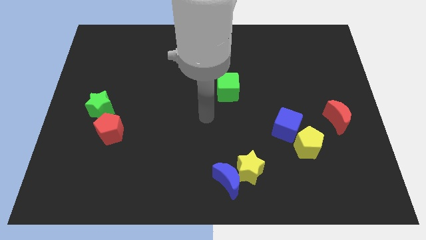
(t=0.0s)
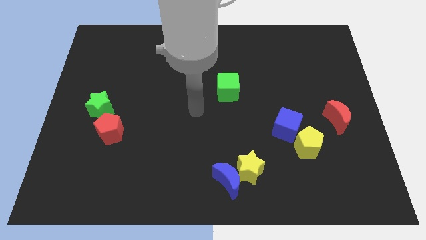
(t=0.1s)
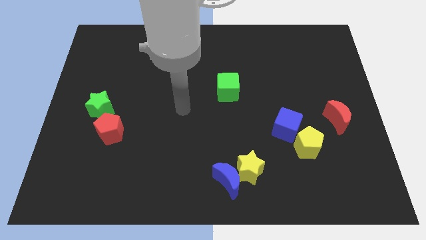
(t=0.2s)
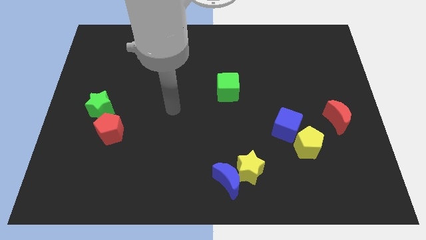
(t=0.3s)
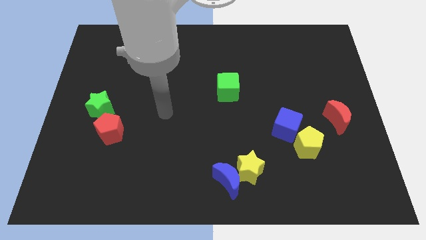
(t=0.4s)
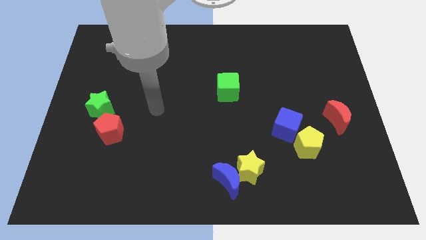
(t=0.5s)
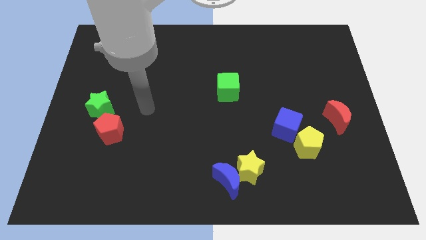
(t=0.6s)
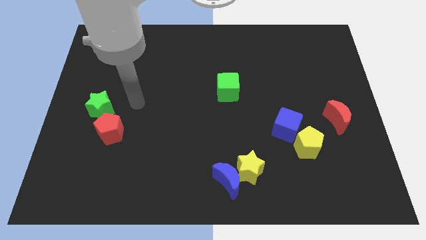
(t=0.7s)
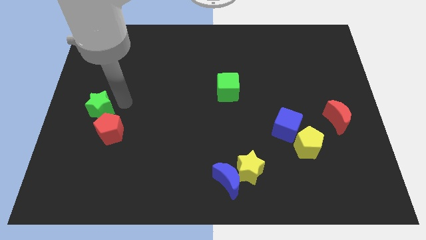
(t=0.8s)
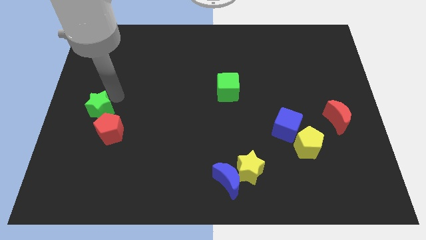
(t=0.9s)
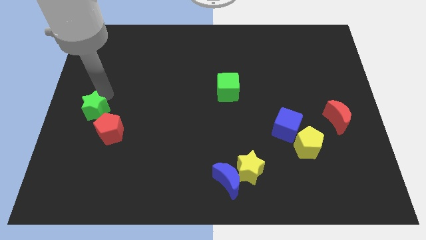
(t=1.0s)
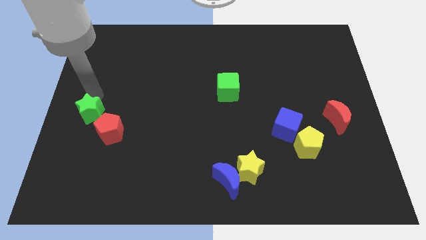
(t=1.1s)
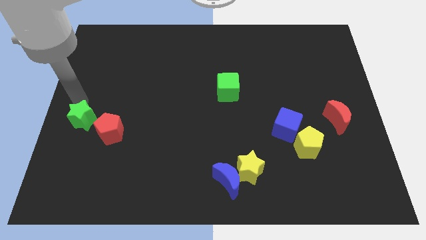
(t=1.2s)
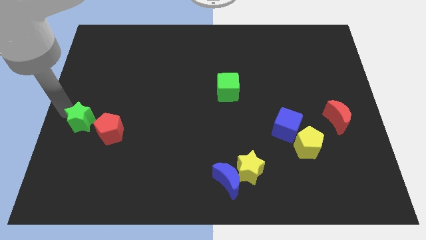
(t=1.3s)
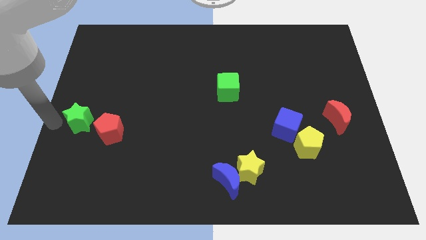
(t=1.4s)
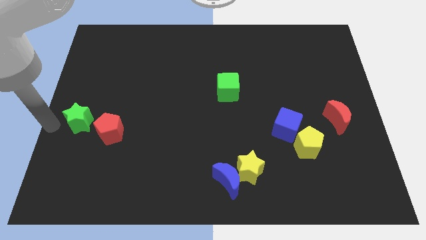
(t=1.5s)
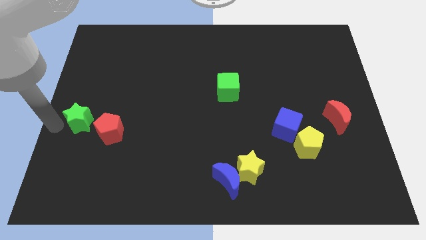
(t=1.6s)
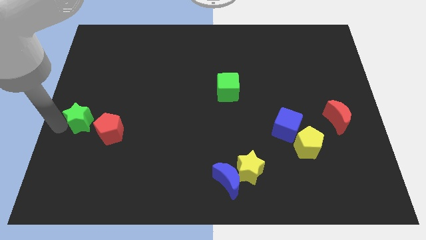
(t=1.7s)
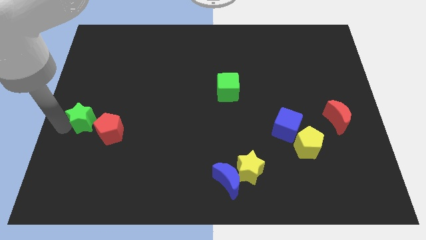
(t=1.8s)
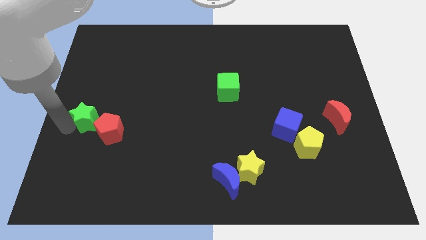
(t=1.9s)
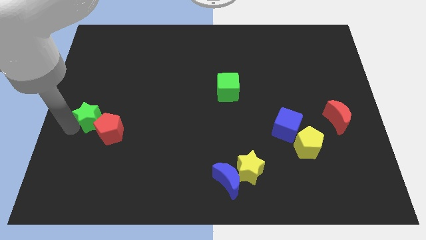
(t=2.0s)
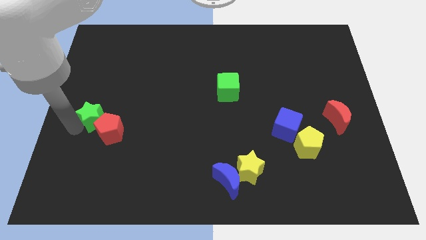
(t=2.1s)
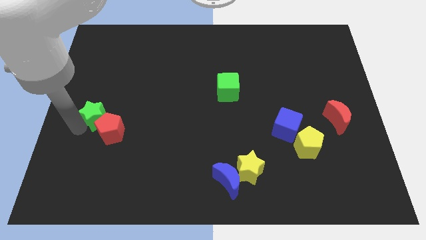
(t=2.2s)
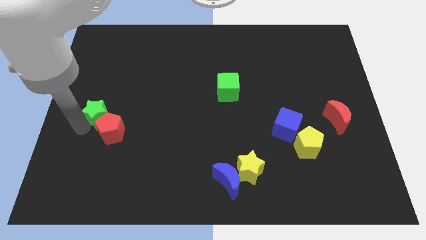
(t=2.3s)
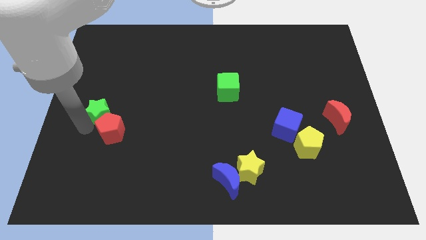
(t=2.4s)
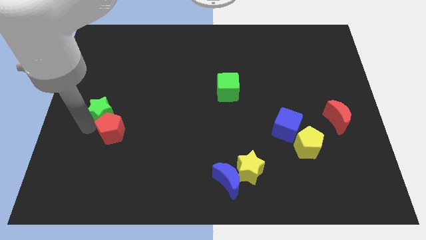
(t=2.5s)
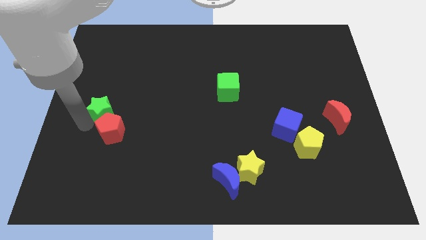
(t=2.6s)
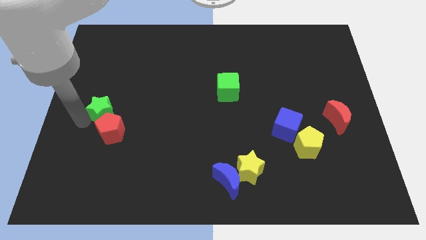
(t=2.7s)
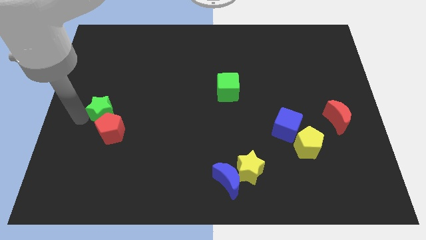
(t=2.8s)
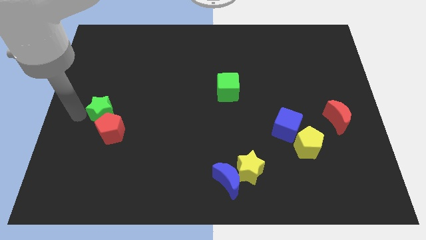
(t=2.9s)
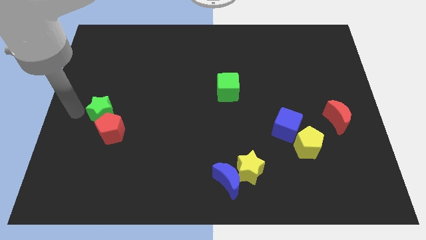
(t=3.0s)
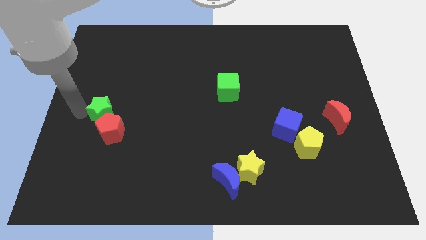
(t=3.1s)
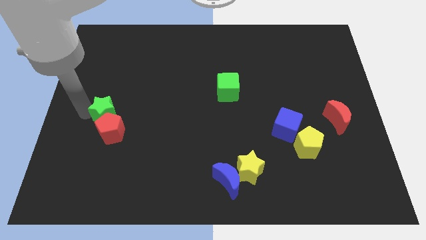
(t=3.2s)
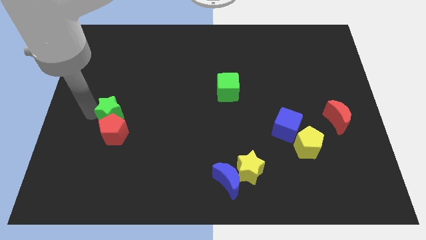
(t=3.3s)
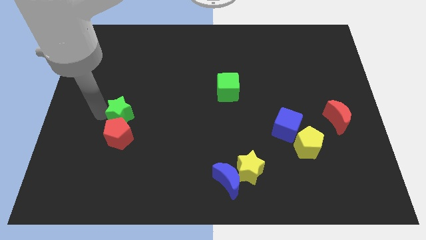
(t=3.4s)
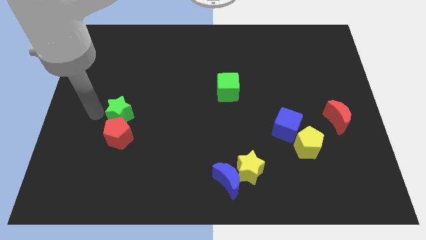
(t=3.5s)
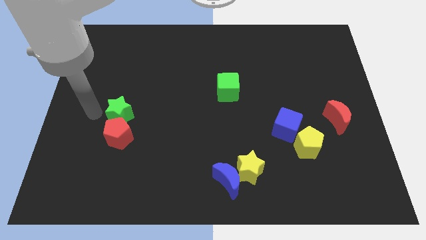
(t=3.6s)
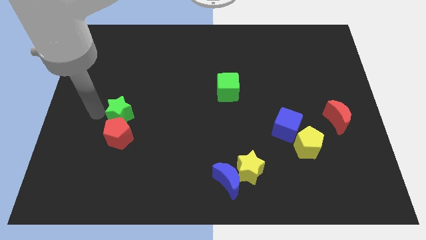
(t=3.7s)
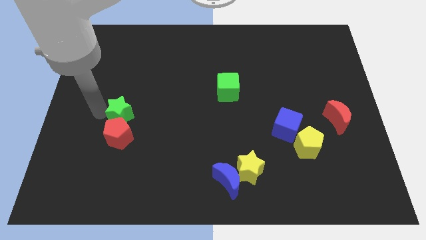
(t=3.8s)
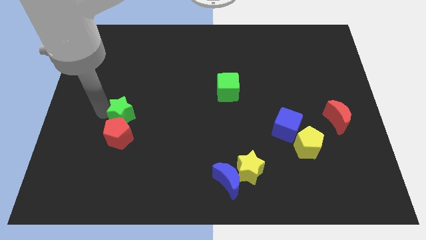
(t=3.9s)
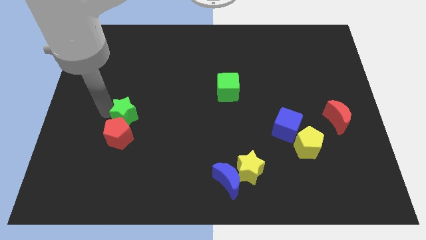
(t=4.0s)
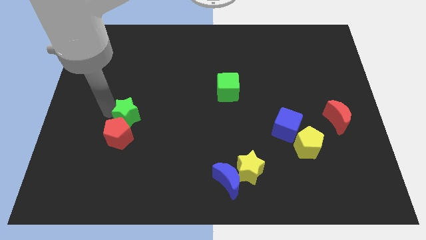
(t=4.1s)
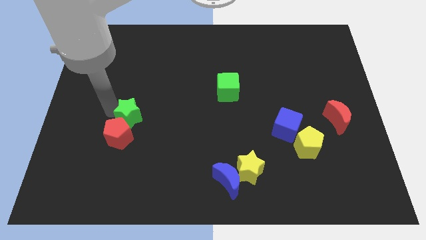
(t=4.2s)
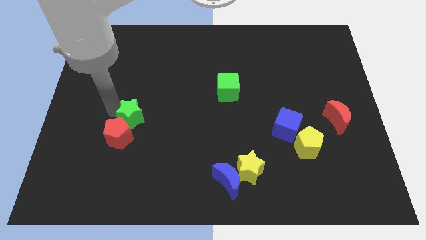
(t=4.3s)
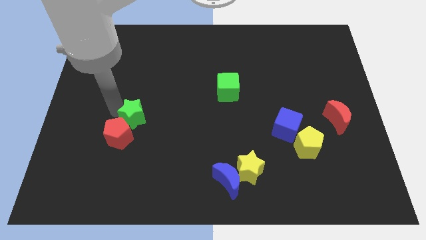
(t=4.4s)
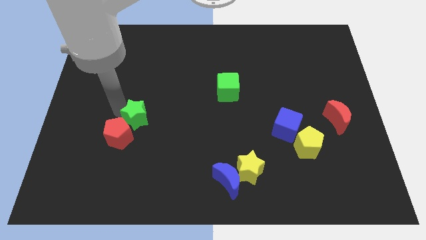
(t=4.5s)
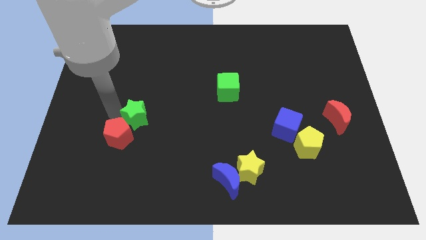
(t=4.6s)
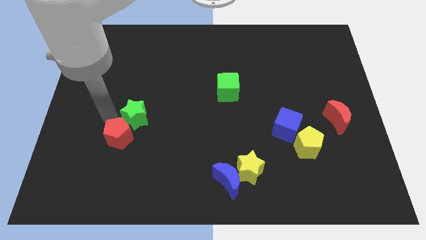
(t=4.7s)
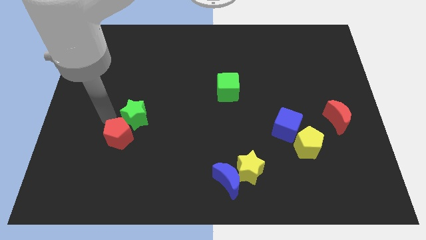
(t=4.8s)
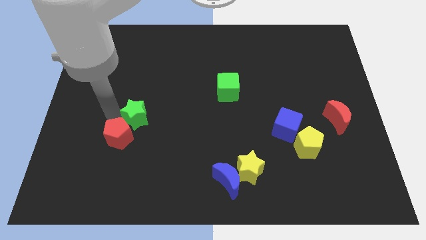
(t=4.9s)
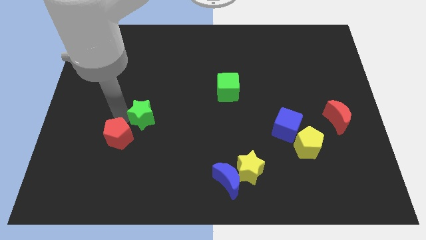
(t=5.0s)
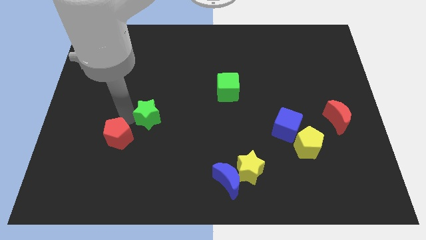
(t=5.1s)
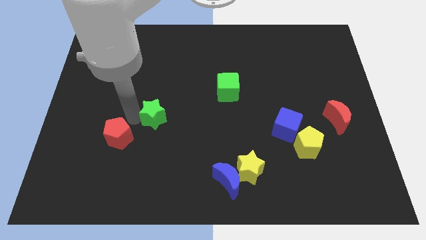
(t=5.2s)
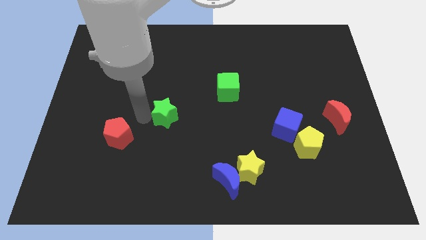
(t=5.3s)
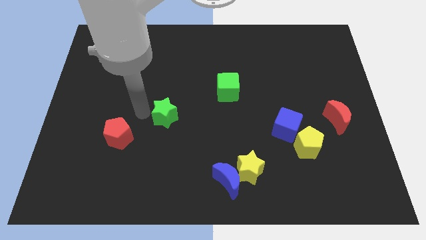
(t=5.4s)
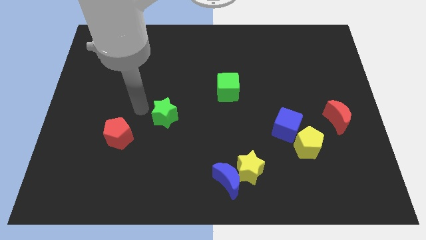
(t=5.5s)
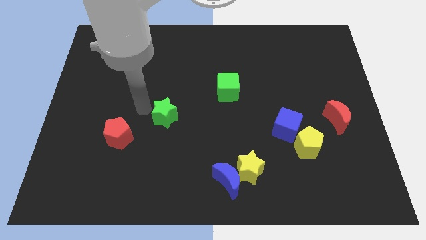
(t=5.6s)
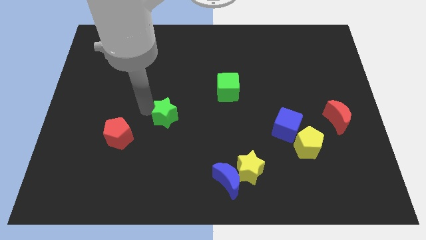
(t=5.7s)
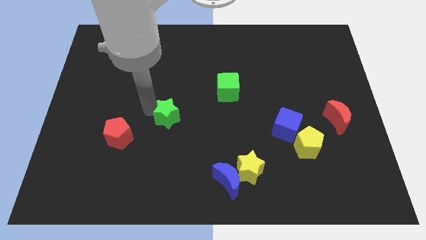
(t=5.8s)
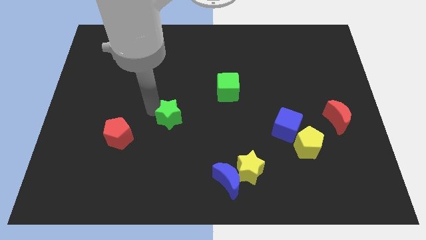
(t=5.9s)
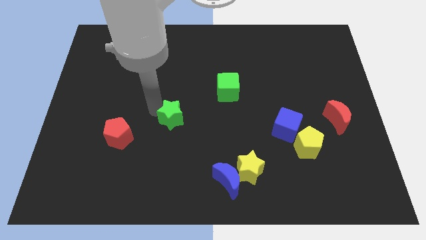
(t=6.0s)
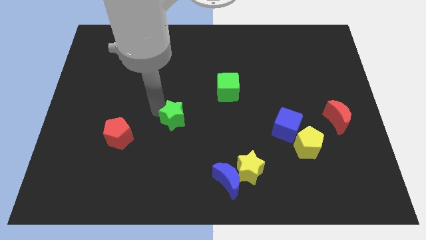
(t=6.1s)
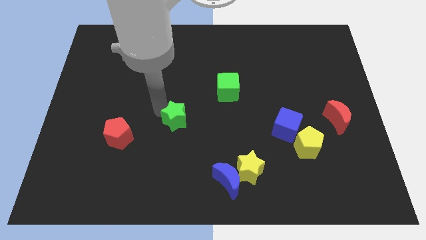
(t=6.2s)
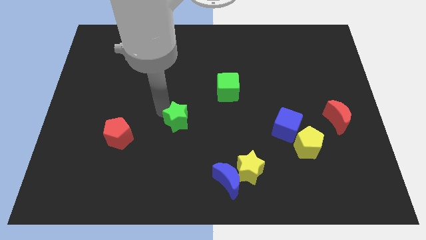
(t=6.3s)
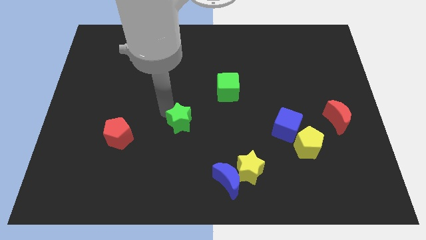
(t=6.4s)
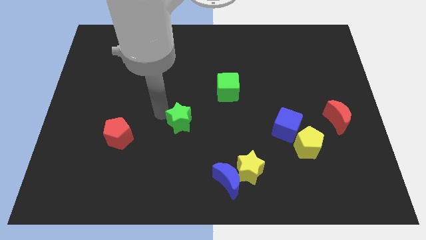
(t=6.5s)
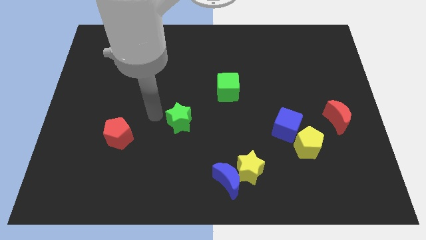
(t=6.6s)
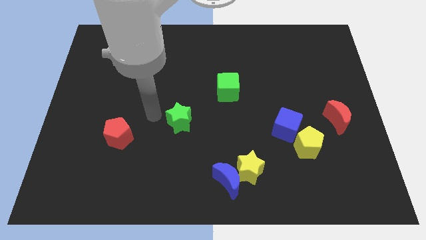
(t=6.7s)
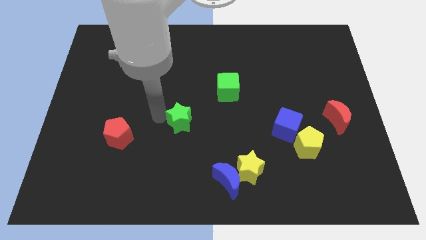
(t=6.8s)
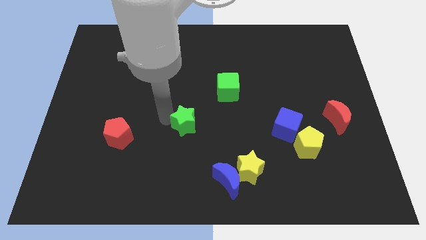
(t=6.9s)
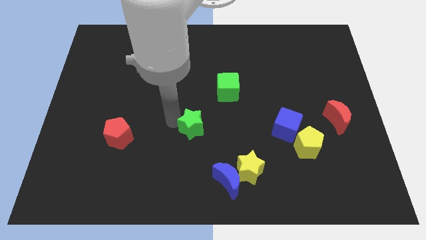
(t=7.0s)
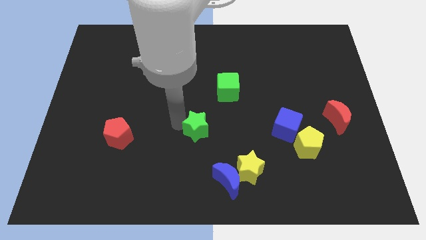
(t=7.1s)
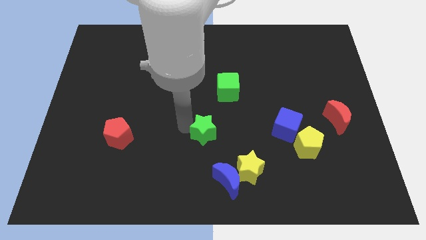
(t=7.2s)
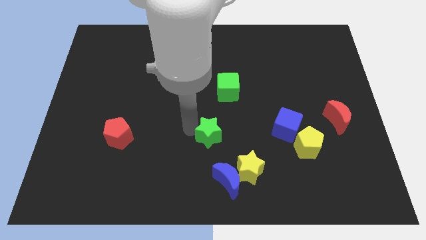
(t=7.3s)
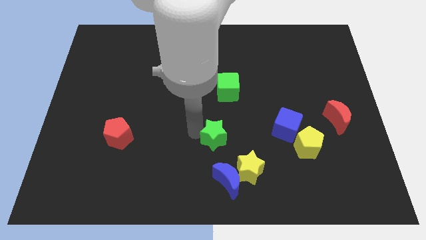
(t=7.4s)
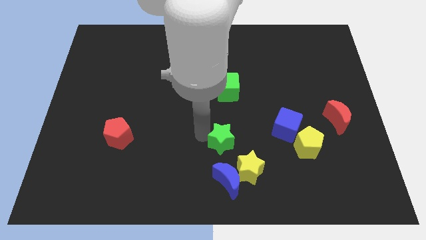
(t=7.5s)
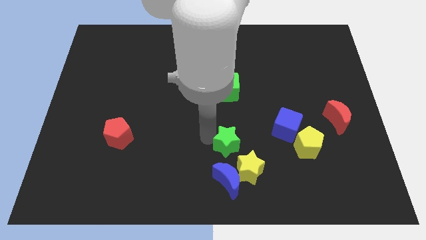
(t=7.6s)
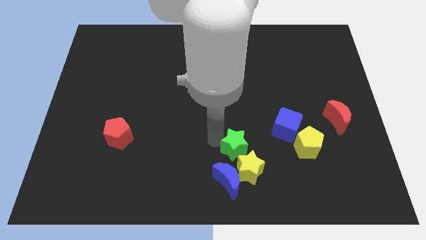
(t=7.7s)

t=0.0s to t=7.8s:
move the green star to the top right of the blue moon

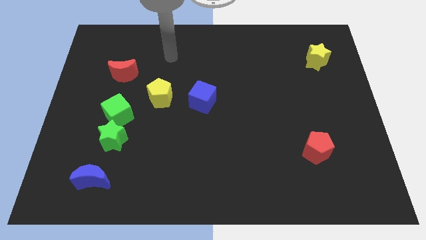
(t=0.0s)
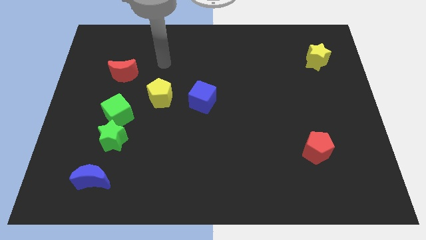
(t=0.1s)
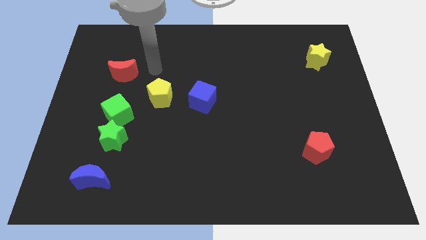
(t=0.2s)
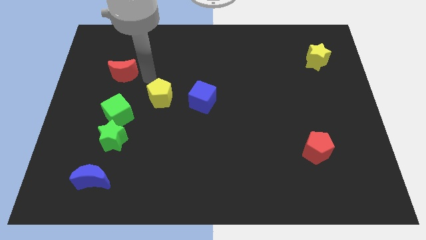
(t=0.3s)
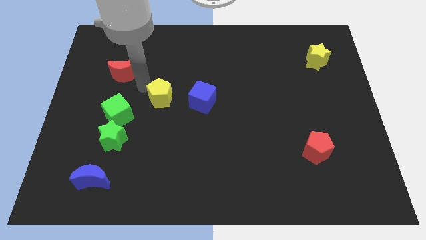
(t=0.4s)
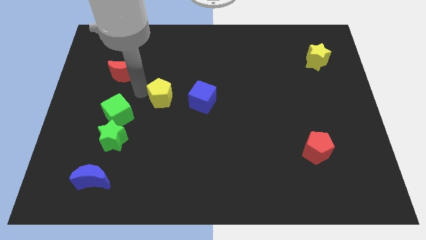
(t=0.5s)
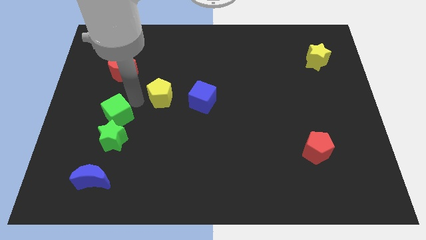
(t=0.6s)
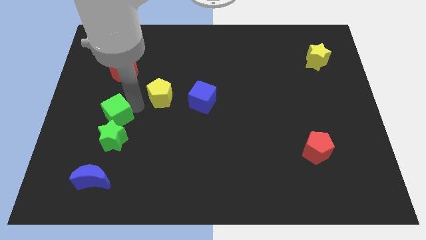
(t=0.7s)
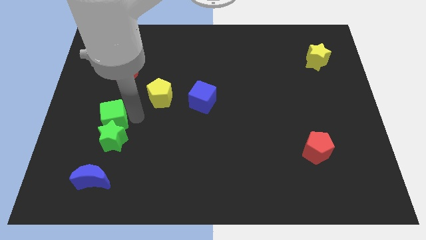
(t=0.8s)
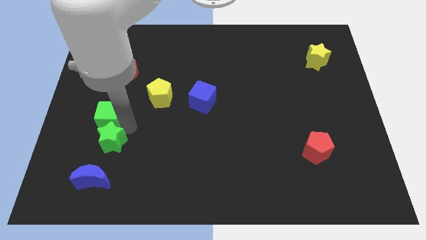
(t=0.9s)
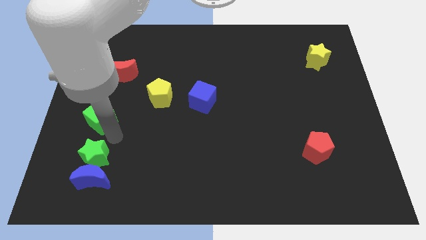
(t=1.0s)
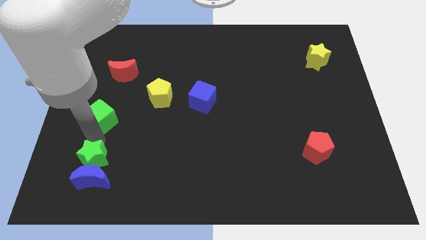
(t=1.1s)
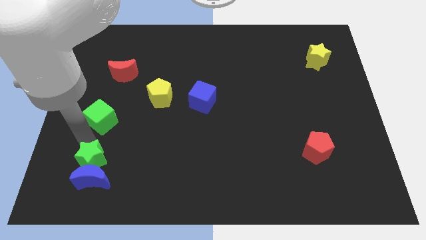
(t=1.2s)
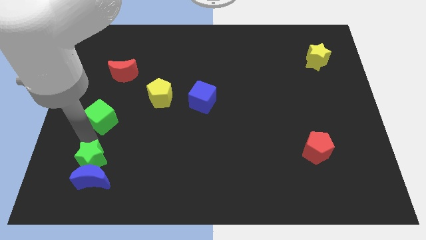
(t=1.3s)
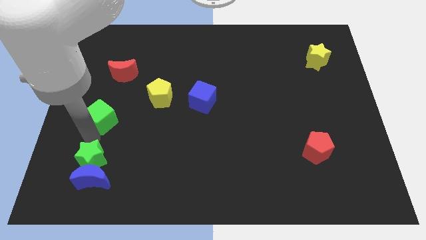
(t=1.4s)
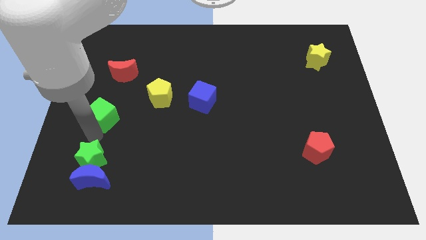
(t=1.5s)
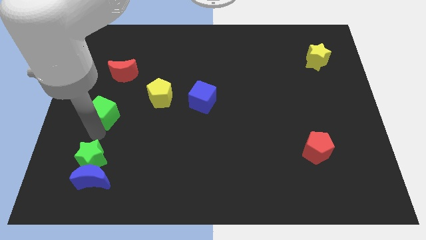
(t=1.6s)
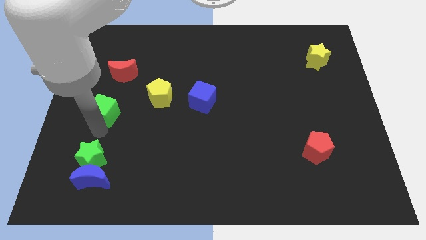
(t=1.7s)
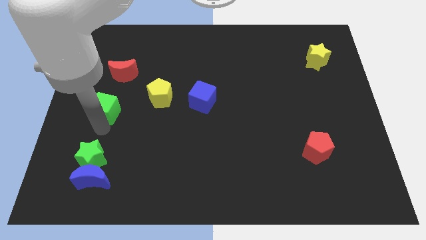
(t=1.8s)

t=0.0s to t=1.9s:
put the green cube just left of the yellow pentagon
